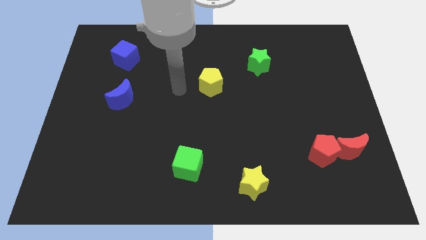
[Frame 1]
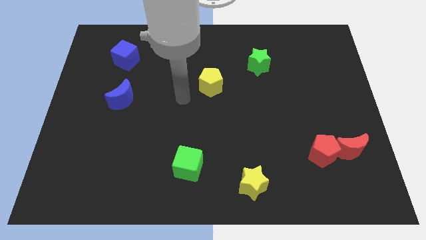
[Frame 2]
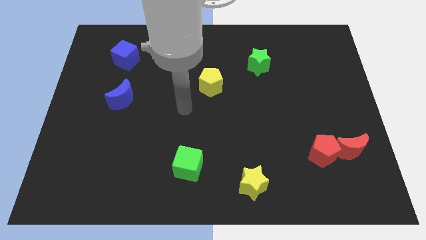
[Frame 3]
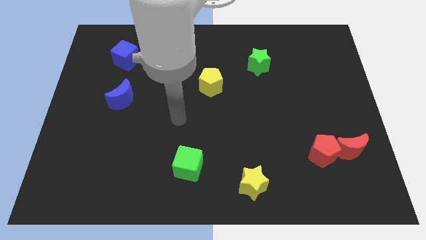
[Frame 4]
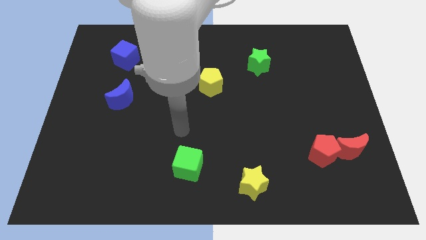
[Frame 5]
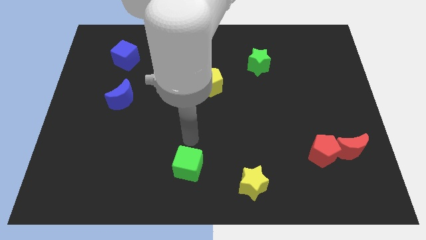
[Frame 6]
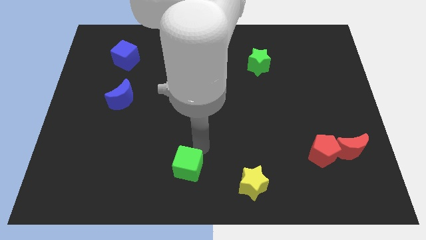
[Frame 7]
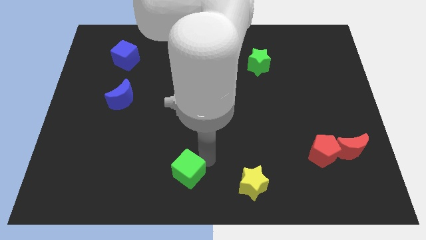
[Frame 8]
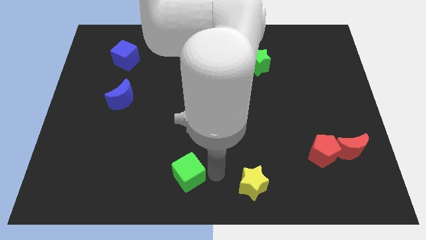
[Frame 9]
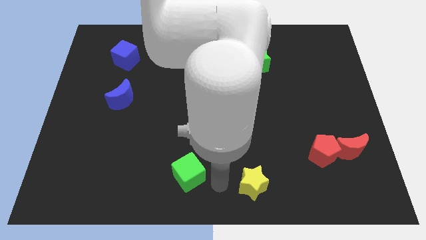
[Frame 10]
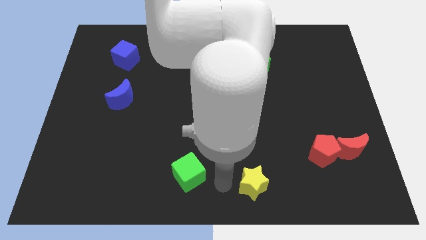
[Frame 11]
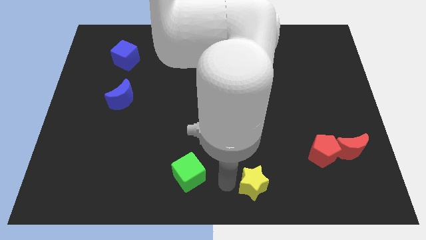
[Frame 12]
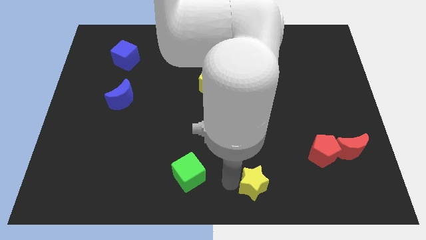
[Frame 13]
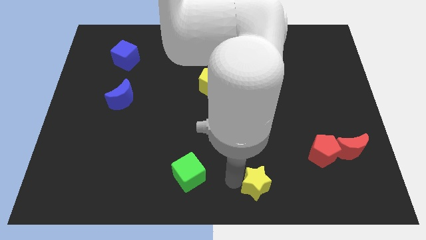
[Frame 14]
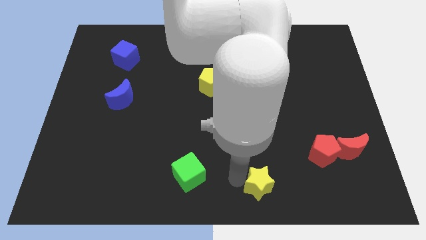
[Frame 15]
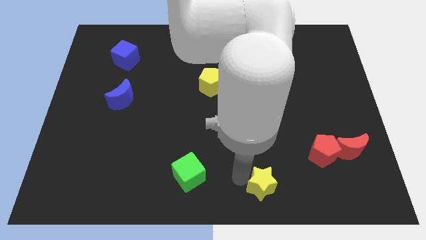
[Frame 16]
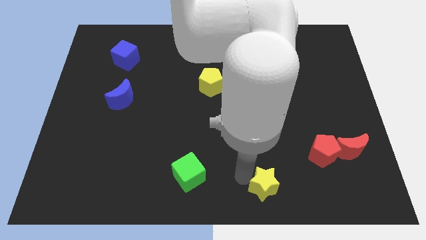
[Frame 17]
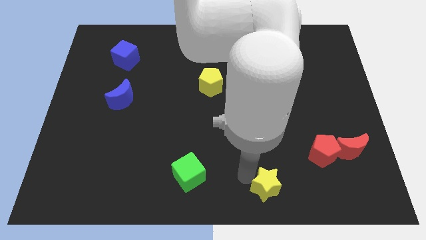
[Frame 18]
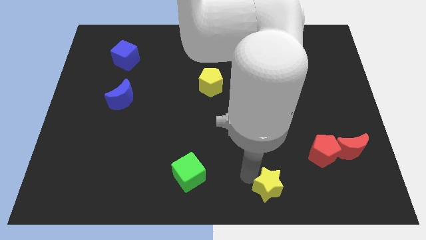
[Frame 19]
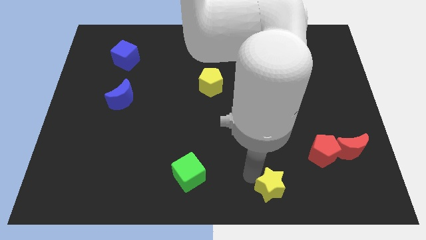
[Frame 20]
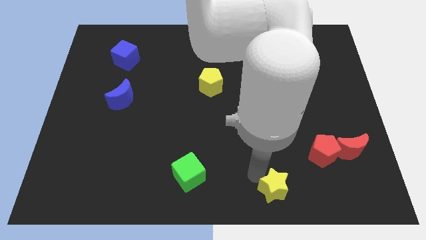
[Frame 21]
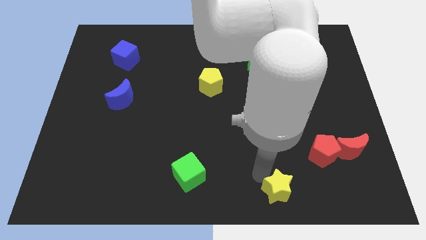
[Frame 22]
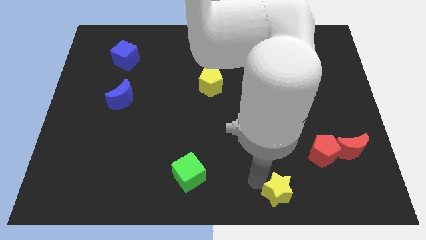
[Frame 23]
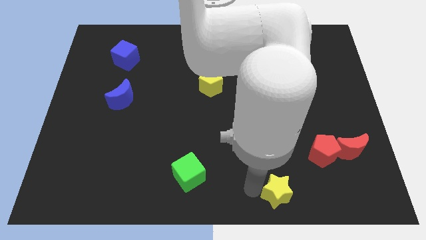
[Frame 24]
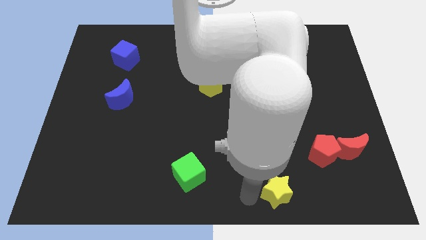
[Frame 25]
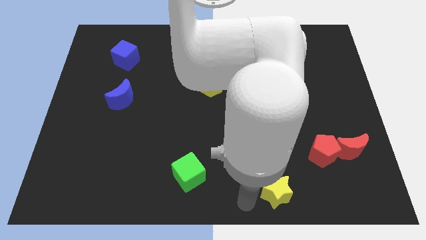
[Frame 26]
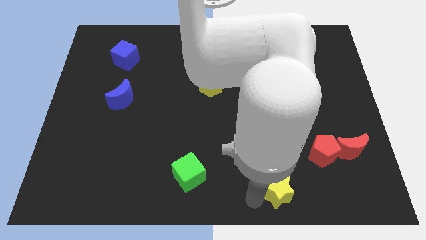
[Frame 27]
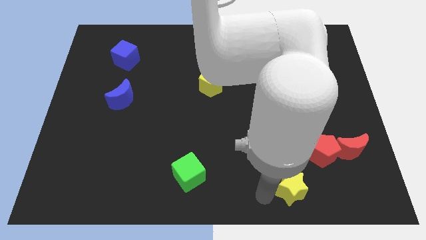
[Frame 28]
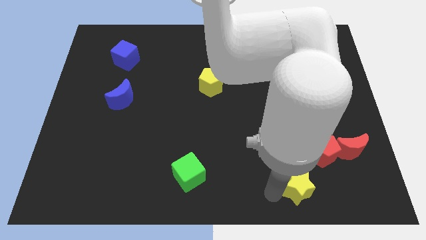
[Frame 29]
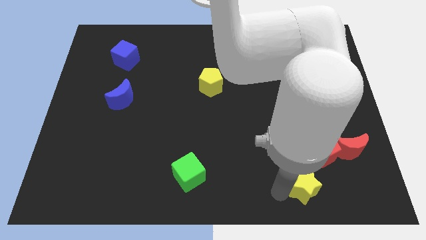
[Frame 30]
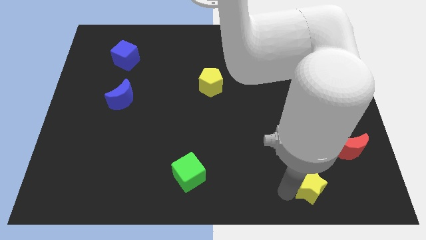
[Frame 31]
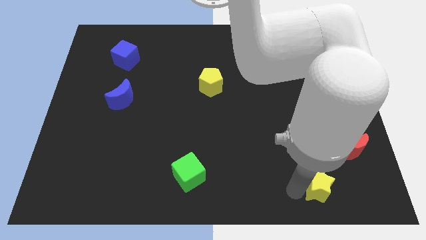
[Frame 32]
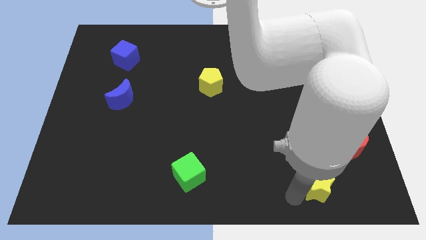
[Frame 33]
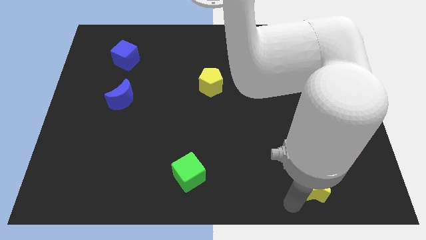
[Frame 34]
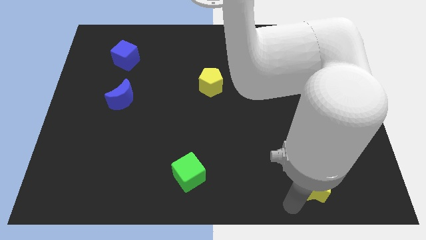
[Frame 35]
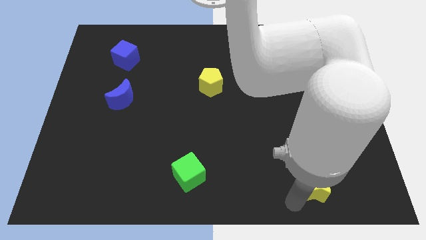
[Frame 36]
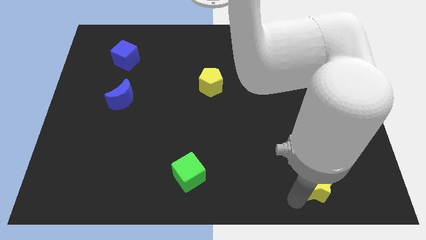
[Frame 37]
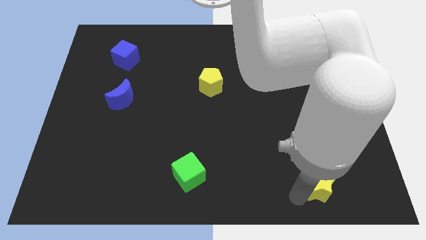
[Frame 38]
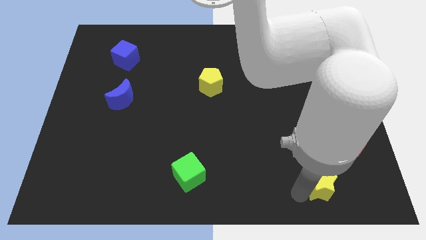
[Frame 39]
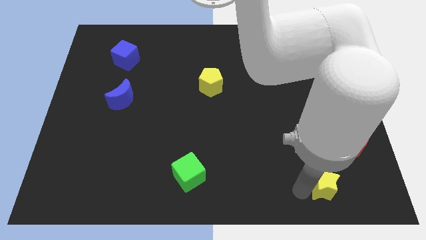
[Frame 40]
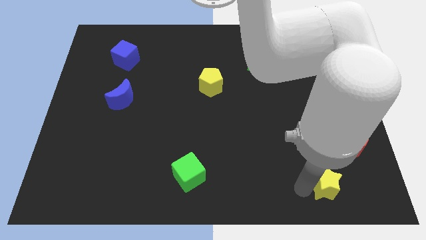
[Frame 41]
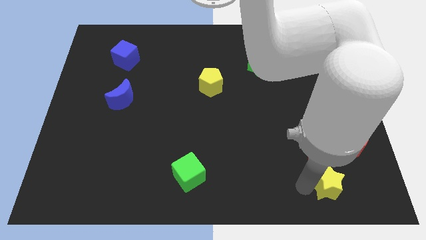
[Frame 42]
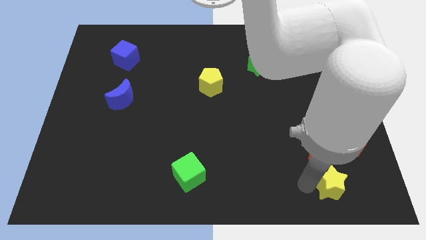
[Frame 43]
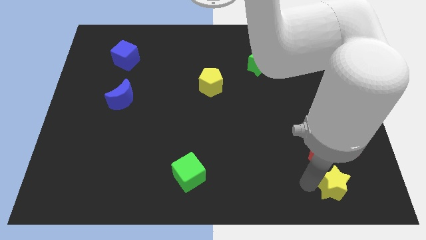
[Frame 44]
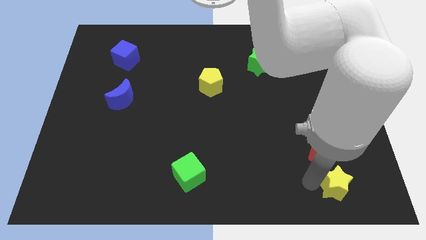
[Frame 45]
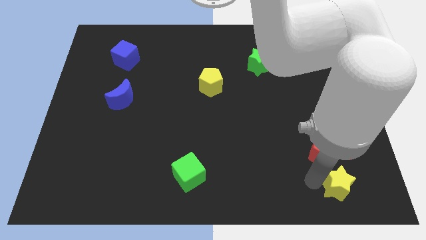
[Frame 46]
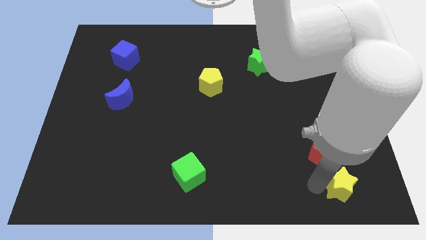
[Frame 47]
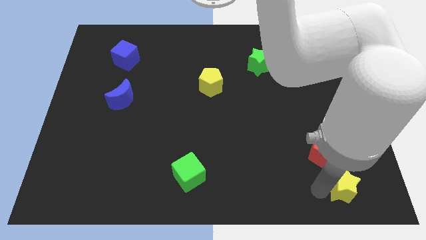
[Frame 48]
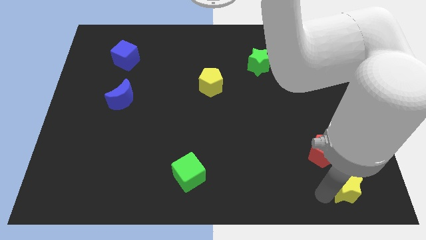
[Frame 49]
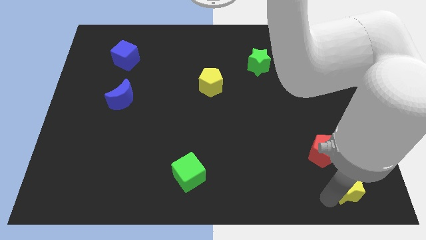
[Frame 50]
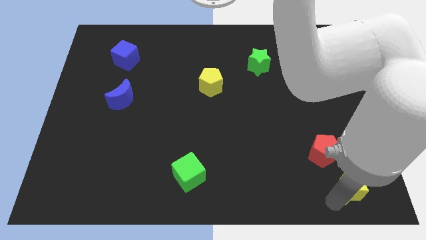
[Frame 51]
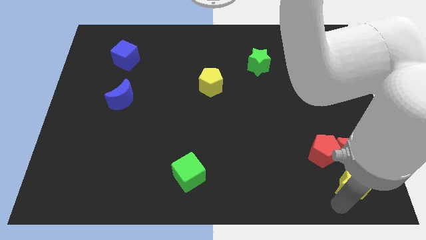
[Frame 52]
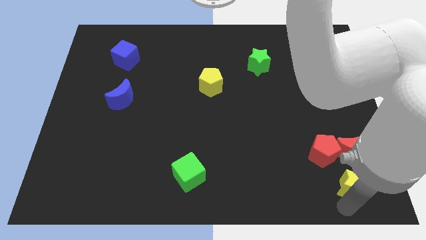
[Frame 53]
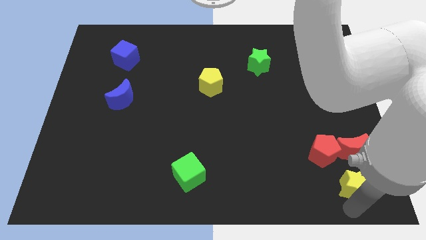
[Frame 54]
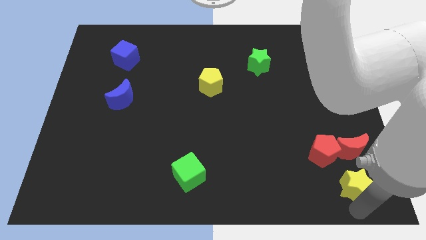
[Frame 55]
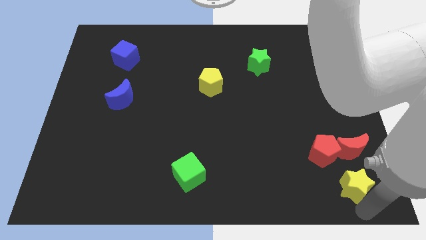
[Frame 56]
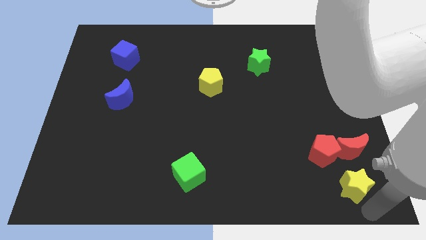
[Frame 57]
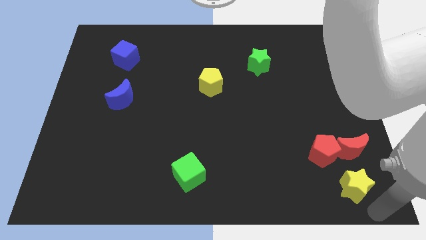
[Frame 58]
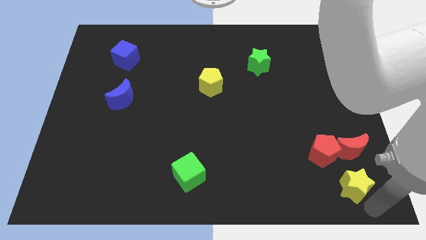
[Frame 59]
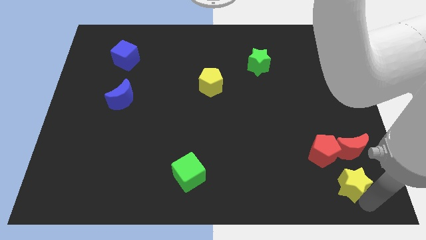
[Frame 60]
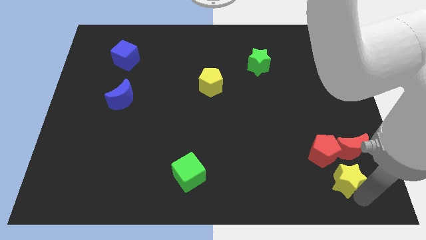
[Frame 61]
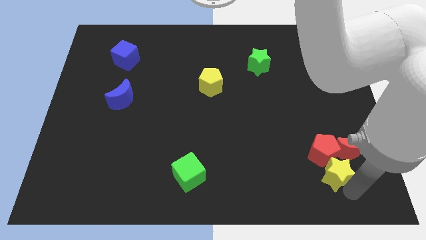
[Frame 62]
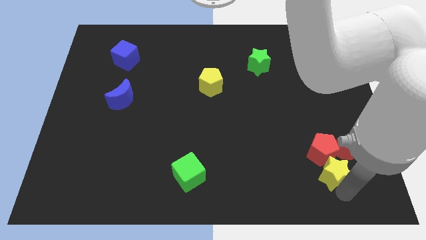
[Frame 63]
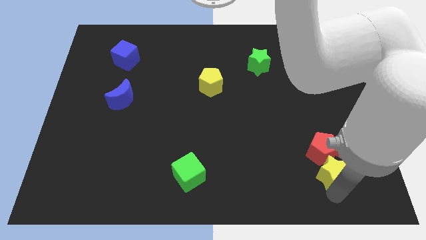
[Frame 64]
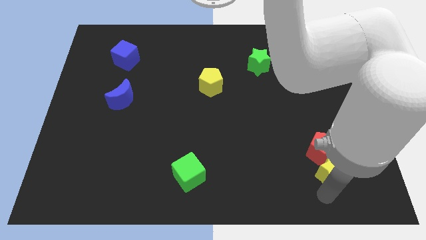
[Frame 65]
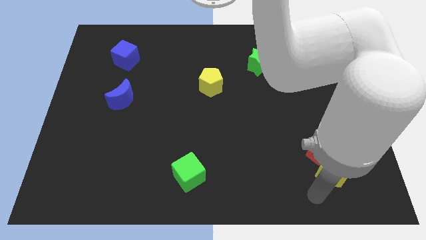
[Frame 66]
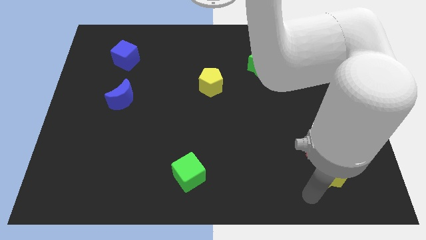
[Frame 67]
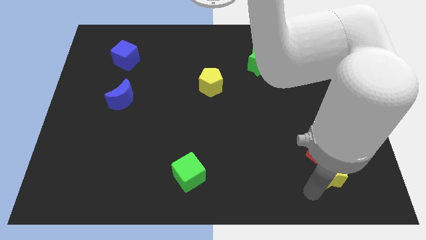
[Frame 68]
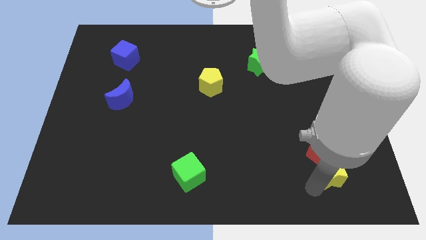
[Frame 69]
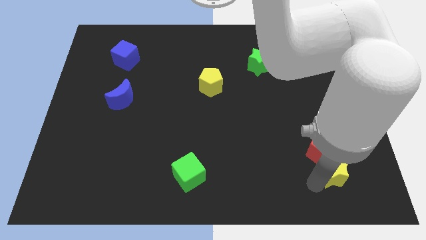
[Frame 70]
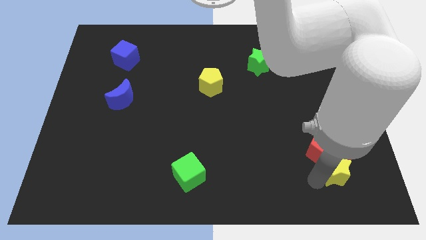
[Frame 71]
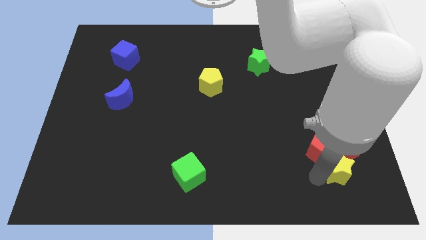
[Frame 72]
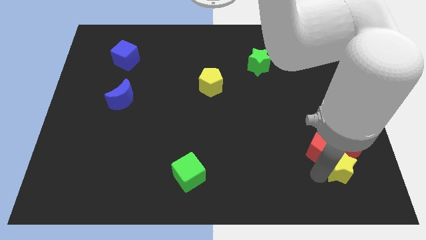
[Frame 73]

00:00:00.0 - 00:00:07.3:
move the yellow star towards the red moon

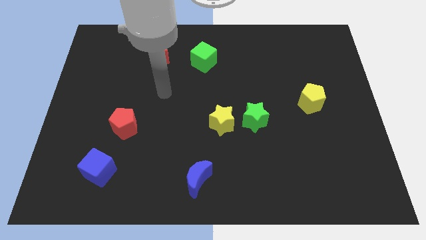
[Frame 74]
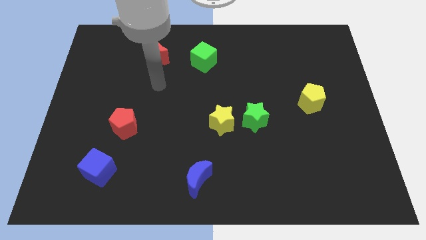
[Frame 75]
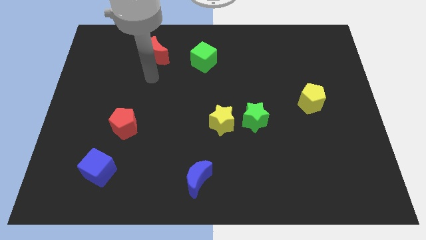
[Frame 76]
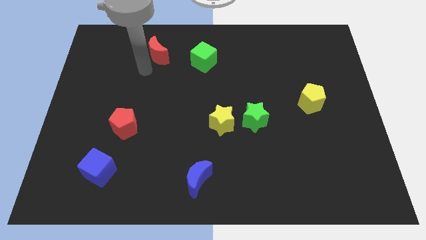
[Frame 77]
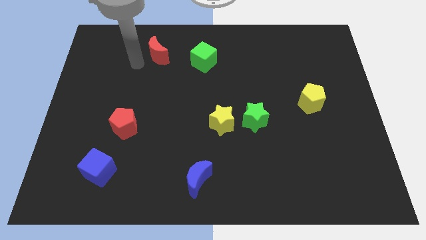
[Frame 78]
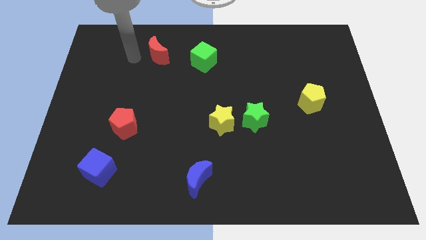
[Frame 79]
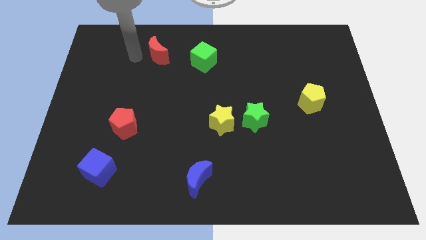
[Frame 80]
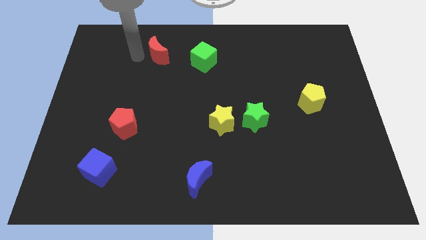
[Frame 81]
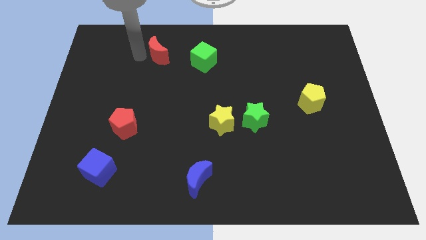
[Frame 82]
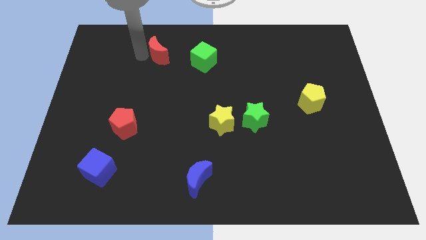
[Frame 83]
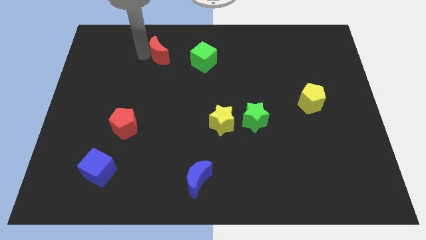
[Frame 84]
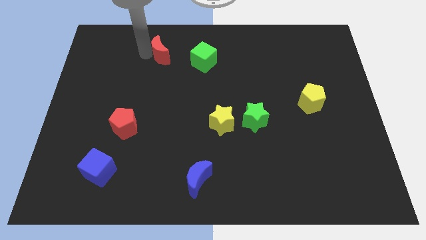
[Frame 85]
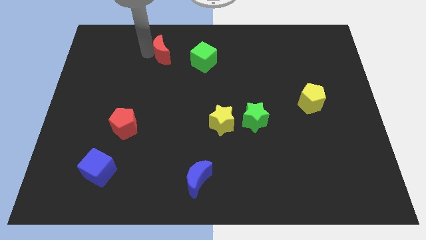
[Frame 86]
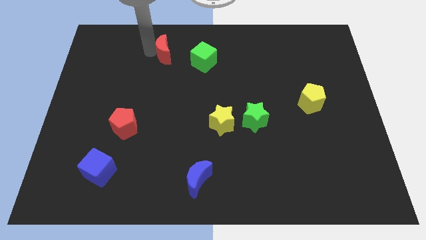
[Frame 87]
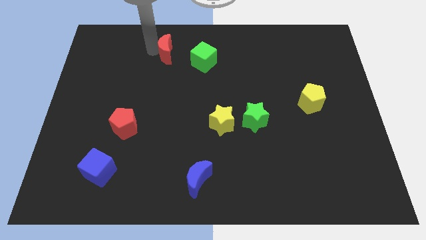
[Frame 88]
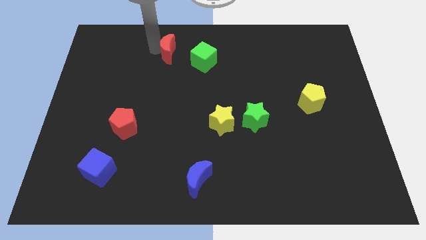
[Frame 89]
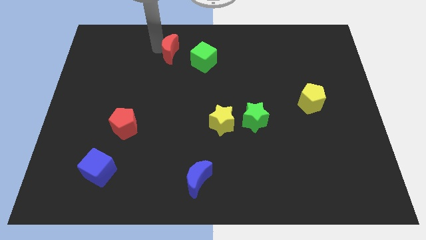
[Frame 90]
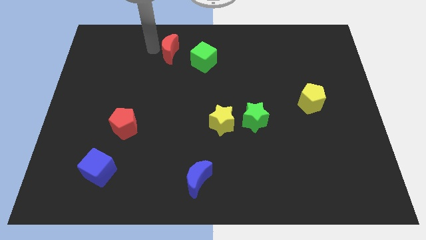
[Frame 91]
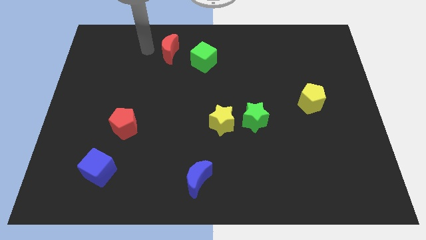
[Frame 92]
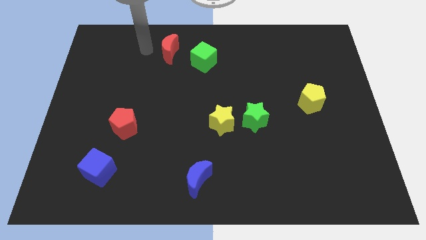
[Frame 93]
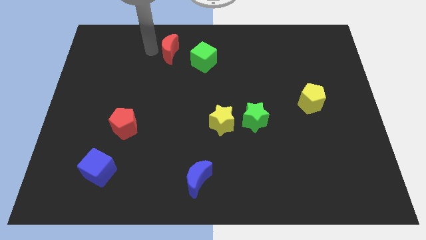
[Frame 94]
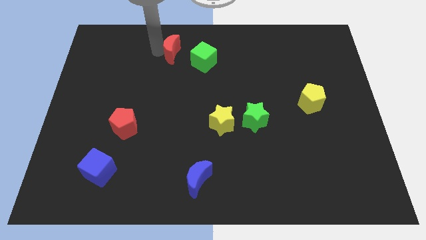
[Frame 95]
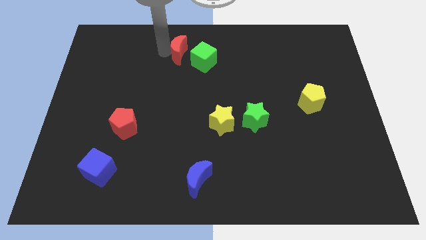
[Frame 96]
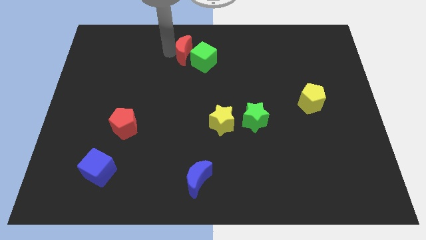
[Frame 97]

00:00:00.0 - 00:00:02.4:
put the red moon next to the green cube
